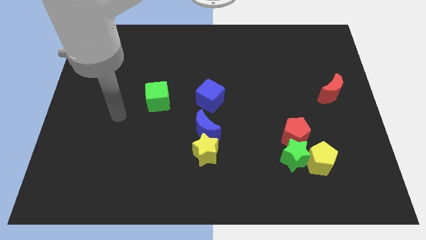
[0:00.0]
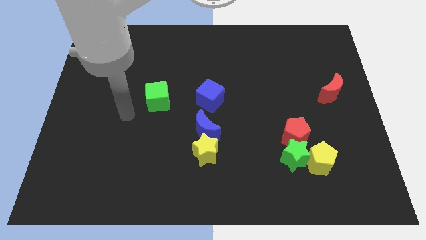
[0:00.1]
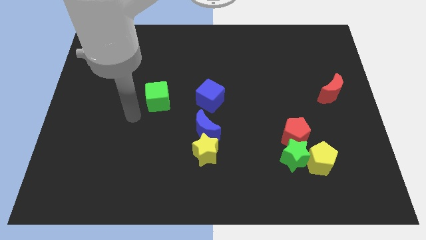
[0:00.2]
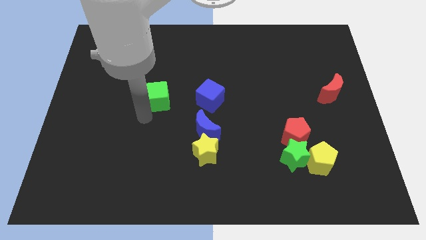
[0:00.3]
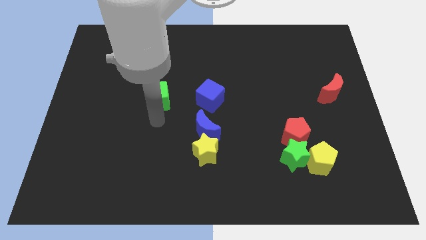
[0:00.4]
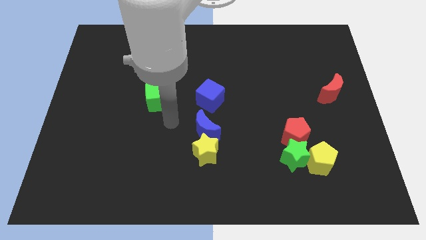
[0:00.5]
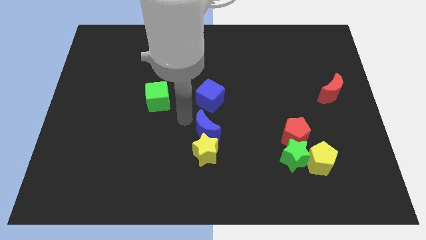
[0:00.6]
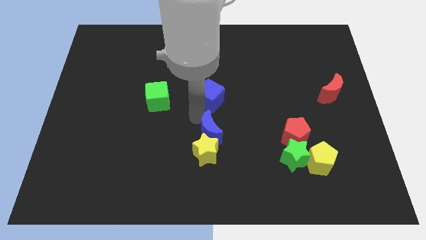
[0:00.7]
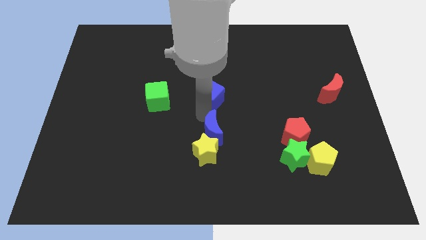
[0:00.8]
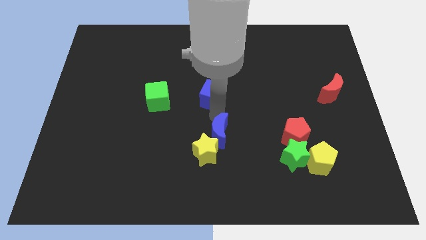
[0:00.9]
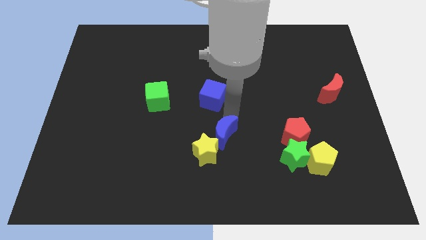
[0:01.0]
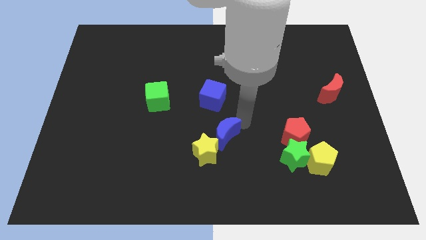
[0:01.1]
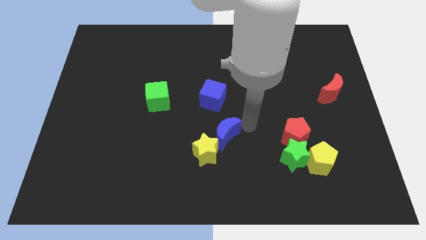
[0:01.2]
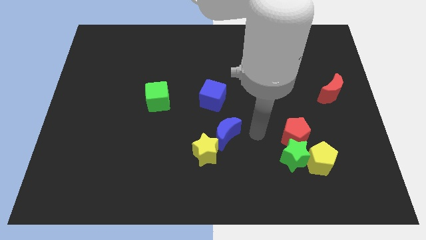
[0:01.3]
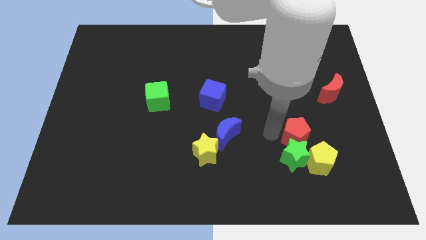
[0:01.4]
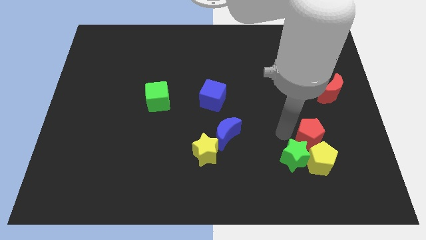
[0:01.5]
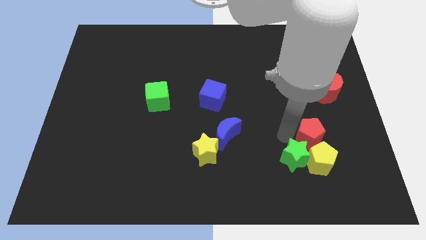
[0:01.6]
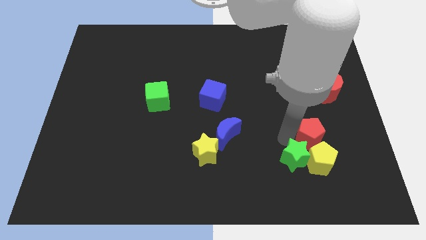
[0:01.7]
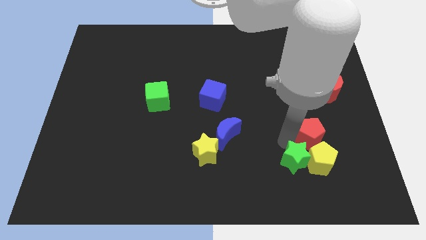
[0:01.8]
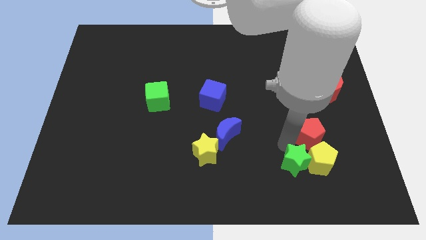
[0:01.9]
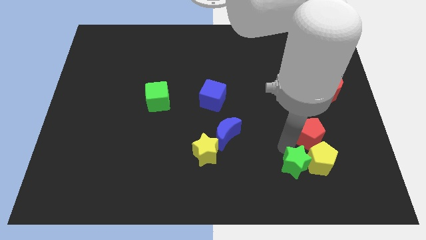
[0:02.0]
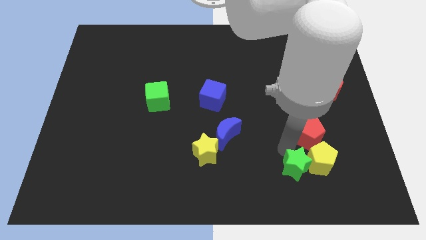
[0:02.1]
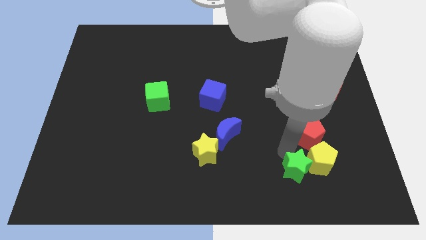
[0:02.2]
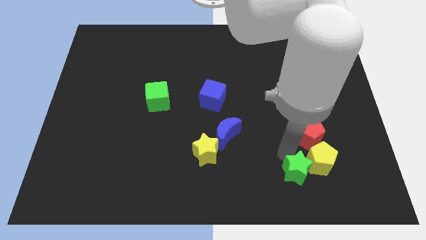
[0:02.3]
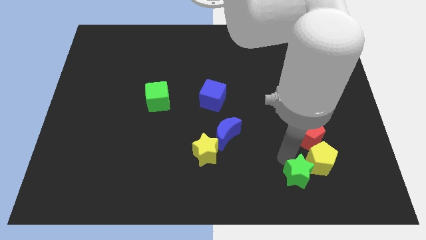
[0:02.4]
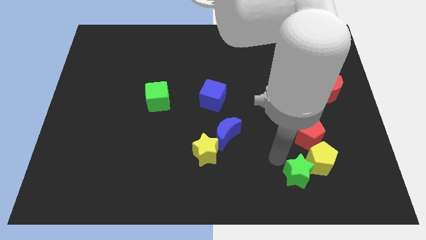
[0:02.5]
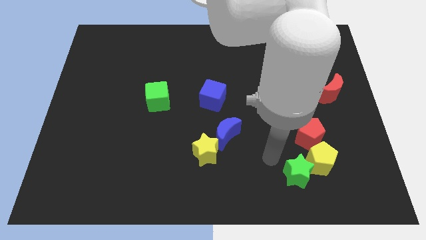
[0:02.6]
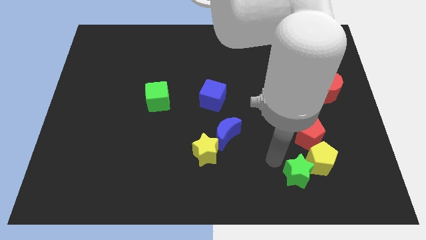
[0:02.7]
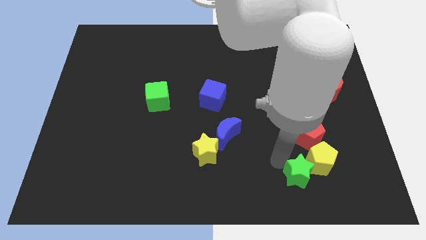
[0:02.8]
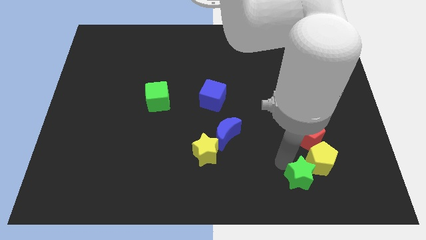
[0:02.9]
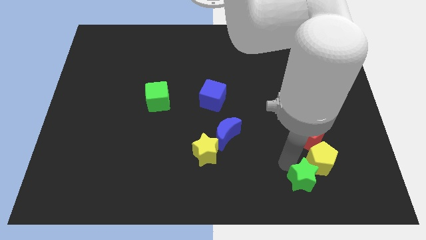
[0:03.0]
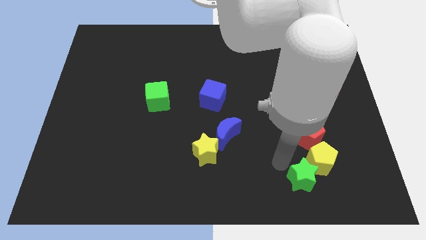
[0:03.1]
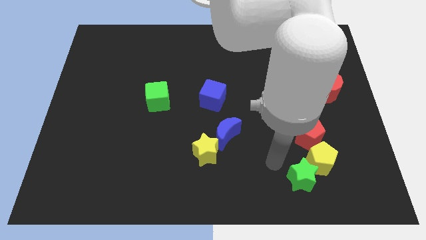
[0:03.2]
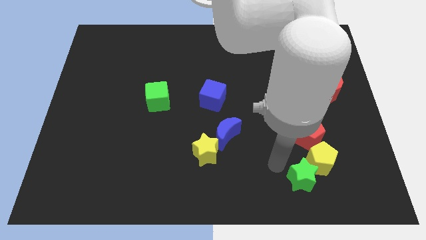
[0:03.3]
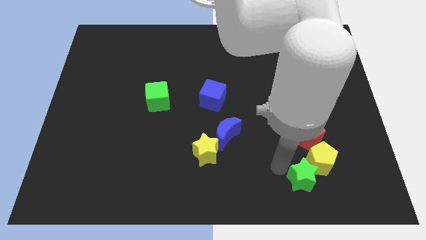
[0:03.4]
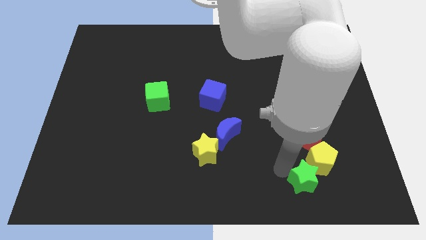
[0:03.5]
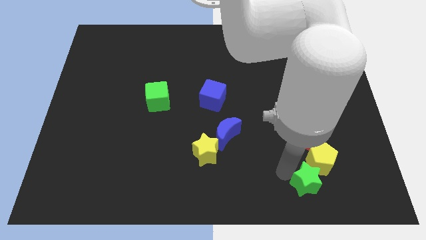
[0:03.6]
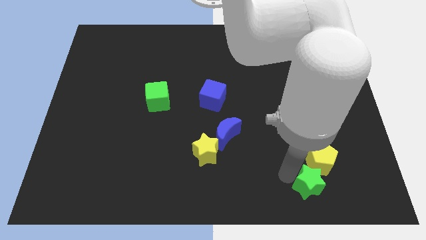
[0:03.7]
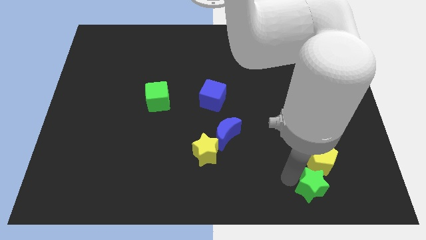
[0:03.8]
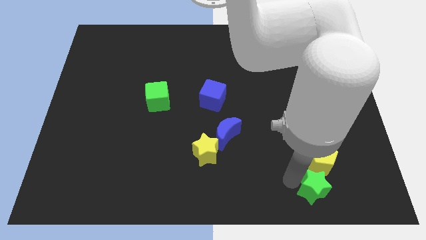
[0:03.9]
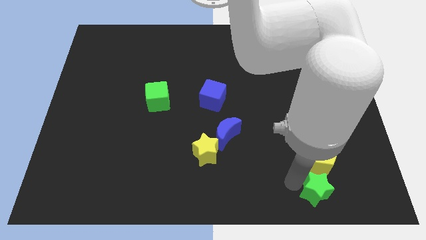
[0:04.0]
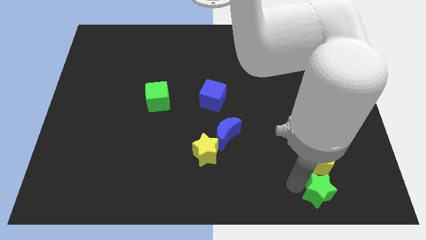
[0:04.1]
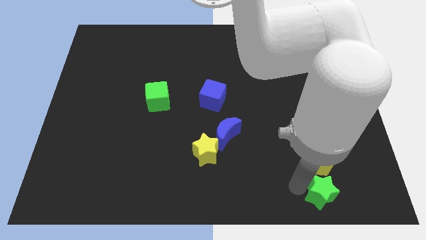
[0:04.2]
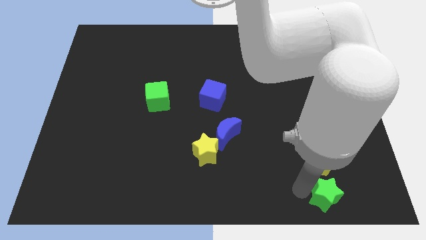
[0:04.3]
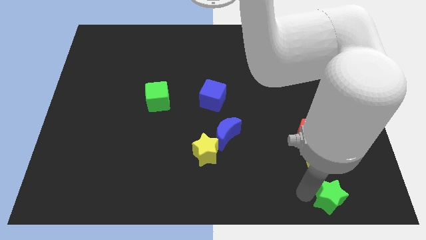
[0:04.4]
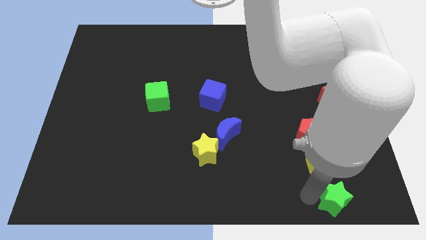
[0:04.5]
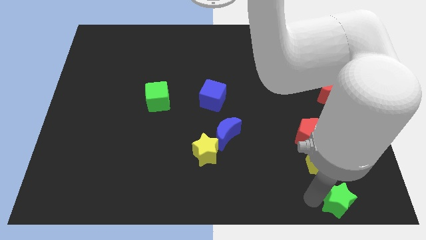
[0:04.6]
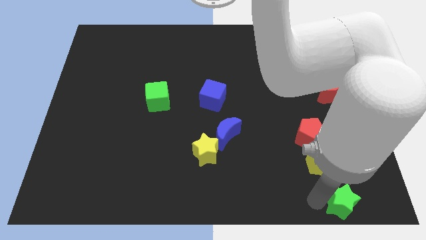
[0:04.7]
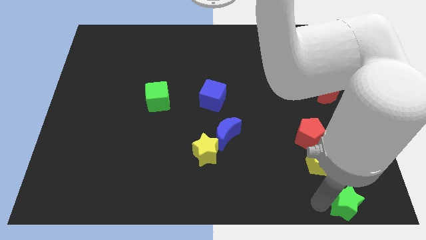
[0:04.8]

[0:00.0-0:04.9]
push the green star to the bottom right of the board

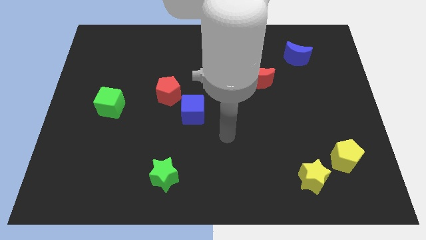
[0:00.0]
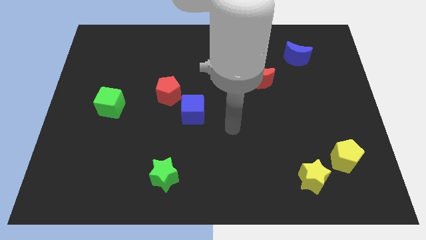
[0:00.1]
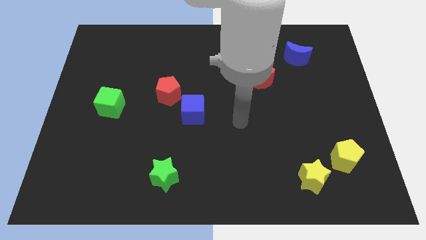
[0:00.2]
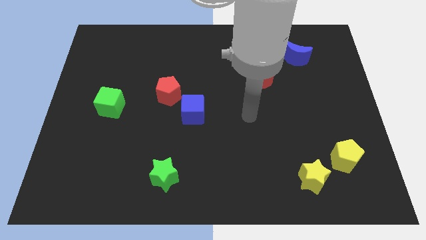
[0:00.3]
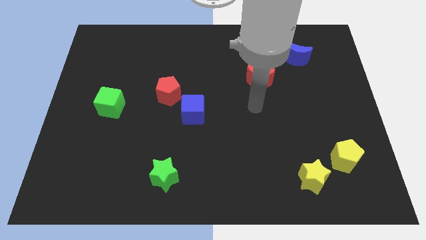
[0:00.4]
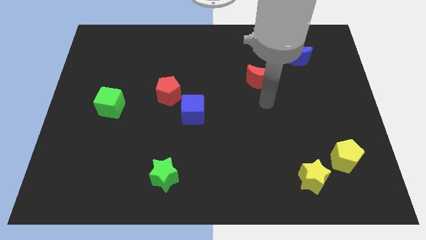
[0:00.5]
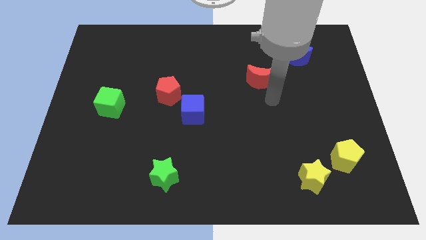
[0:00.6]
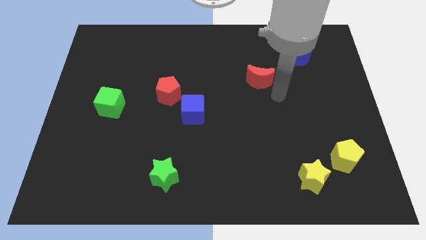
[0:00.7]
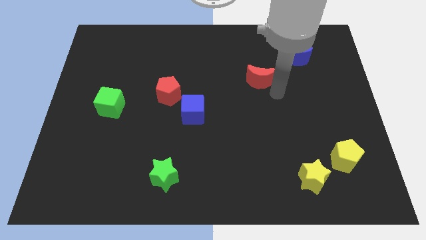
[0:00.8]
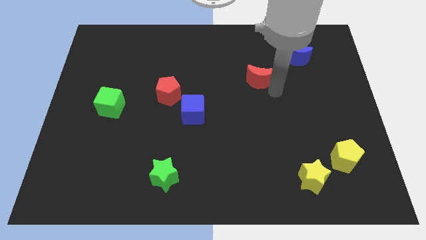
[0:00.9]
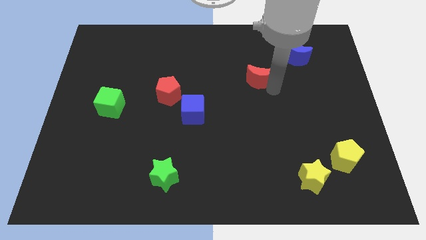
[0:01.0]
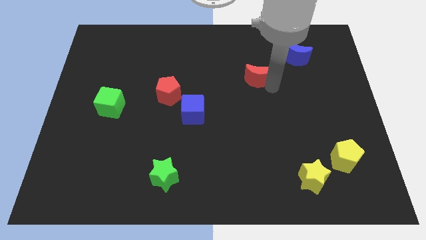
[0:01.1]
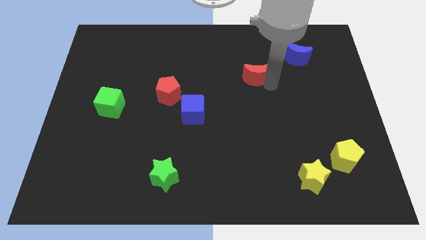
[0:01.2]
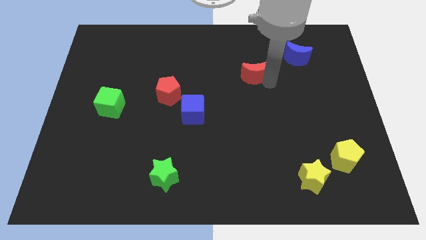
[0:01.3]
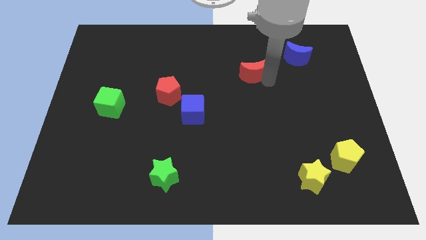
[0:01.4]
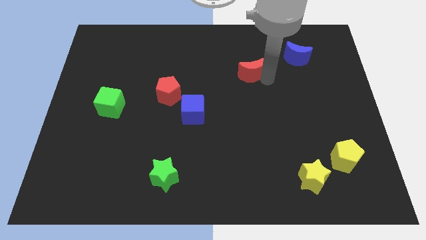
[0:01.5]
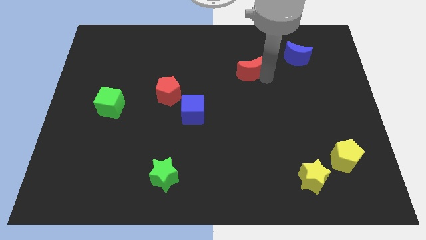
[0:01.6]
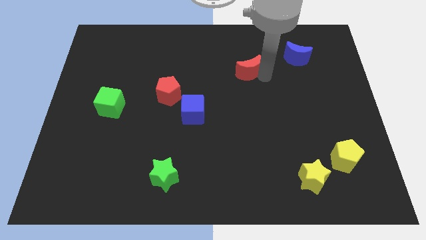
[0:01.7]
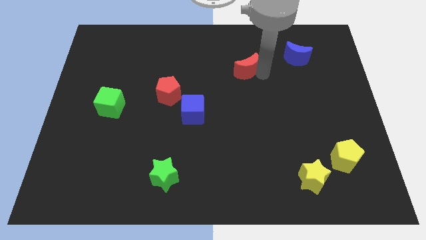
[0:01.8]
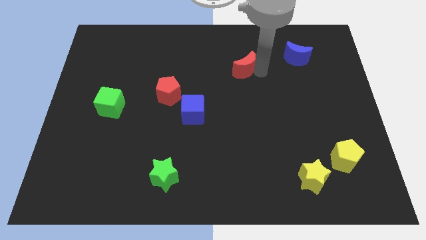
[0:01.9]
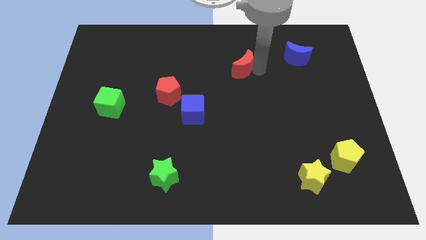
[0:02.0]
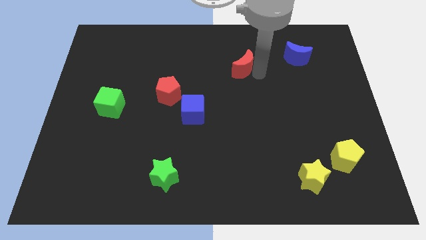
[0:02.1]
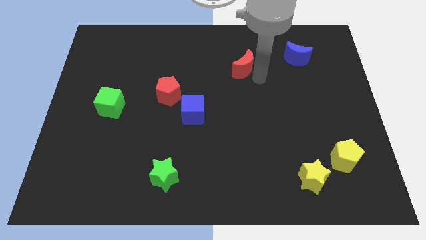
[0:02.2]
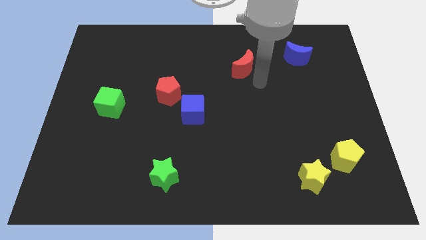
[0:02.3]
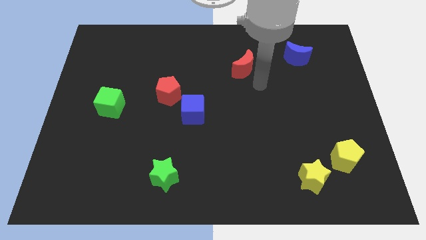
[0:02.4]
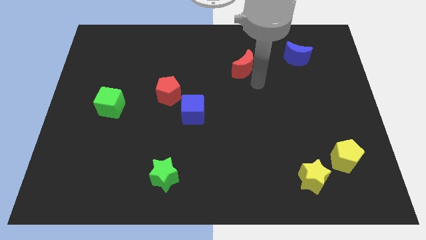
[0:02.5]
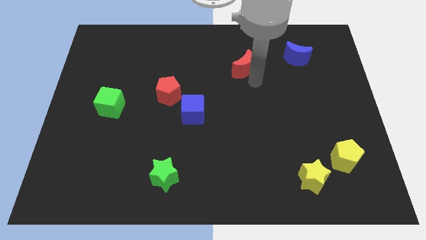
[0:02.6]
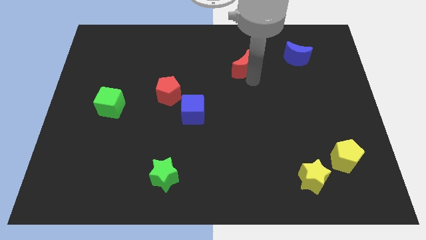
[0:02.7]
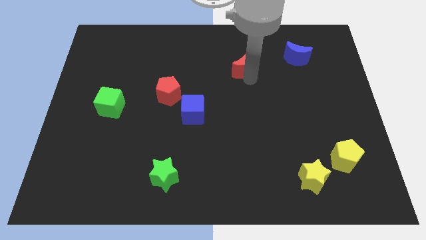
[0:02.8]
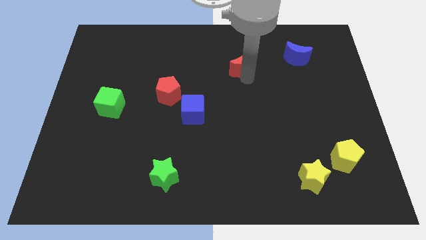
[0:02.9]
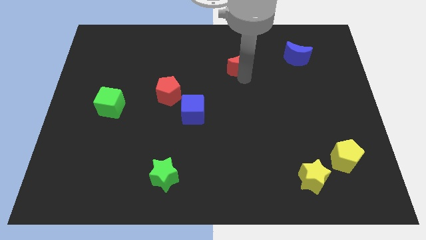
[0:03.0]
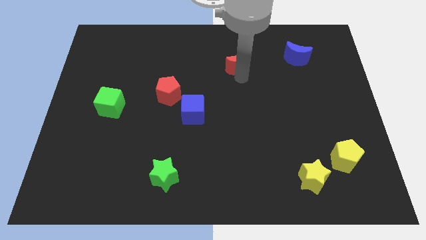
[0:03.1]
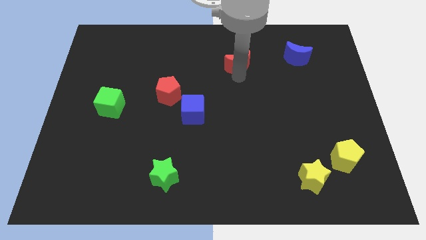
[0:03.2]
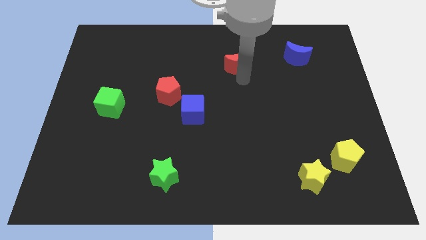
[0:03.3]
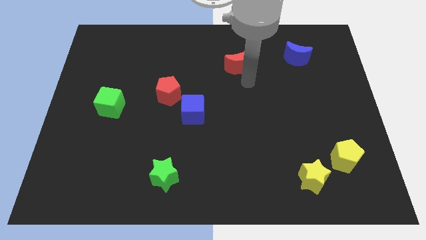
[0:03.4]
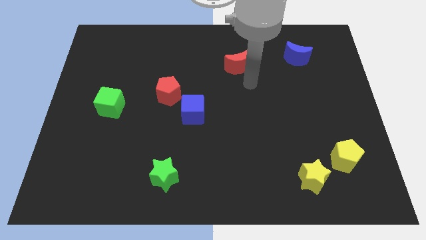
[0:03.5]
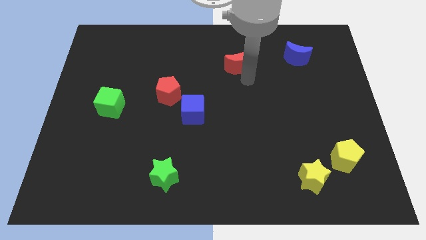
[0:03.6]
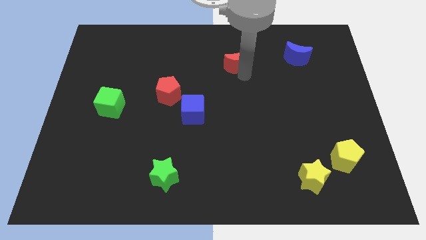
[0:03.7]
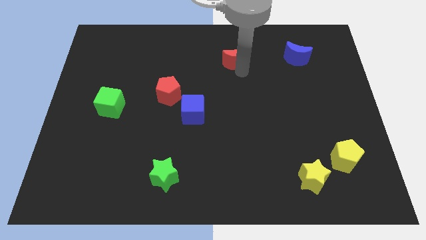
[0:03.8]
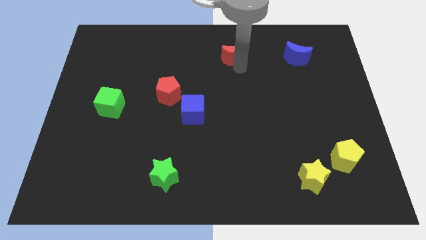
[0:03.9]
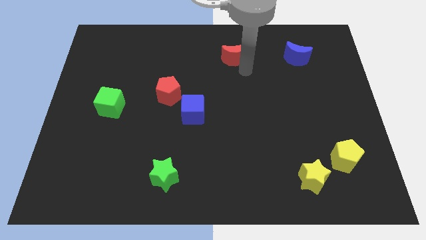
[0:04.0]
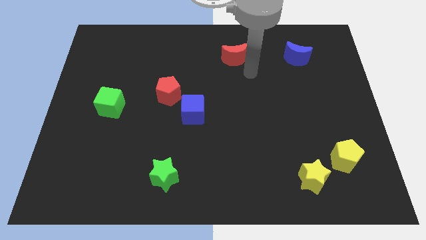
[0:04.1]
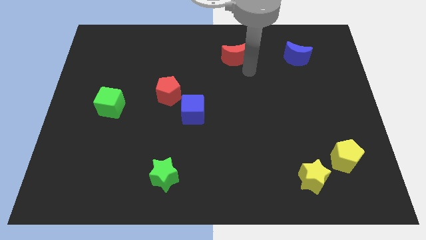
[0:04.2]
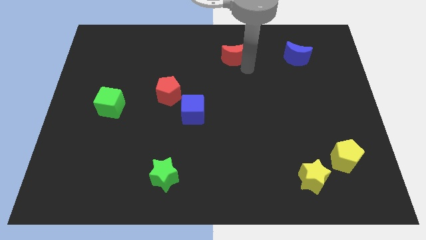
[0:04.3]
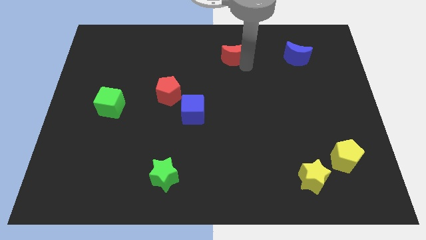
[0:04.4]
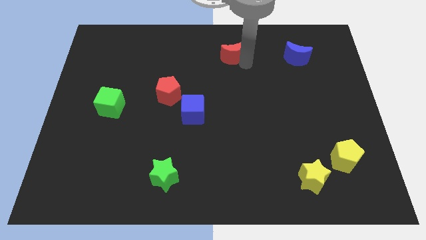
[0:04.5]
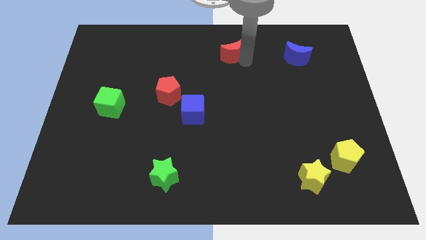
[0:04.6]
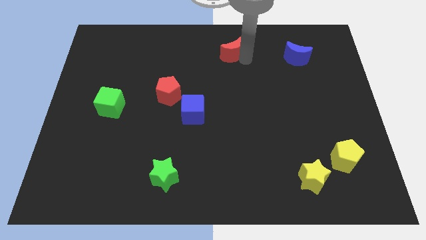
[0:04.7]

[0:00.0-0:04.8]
push the red moon to the top side
